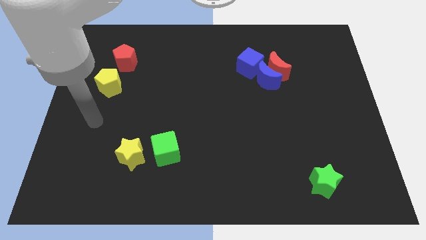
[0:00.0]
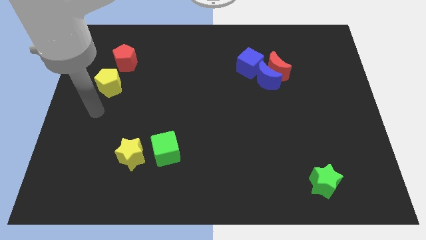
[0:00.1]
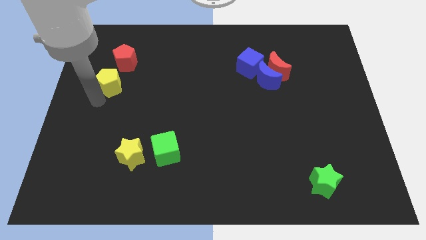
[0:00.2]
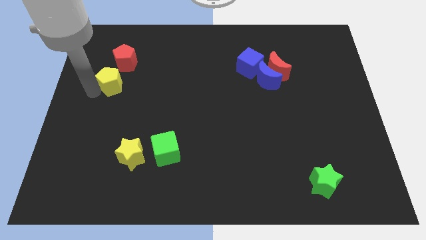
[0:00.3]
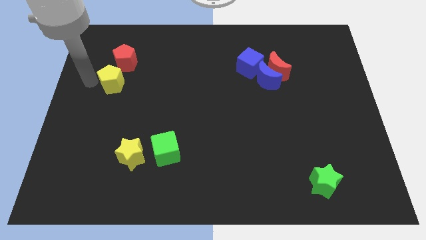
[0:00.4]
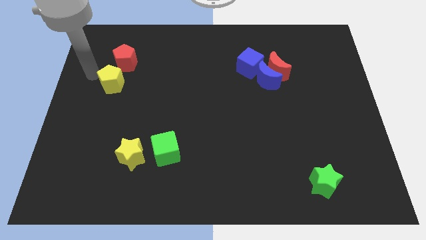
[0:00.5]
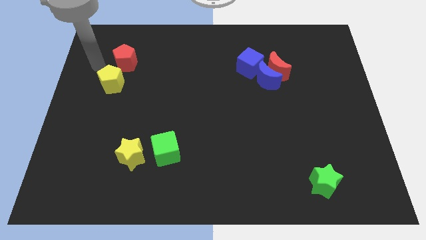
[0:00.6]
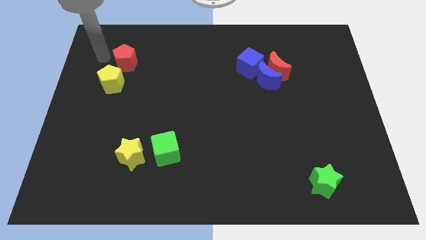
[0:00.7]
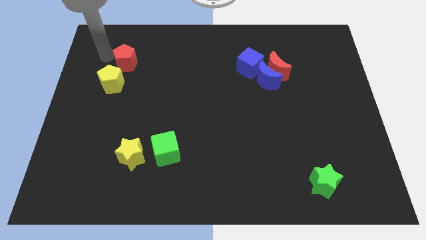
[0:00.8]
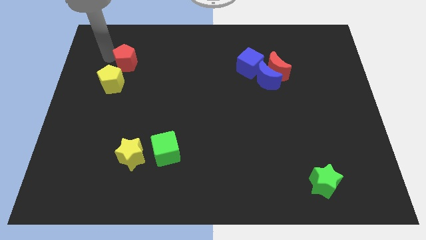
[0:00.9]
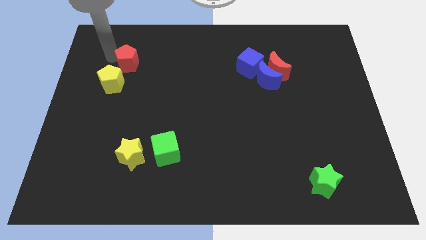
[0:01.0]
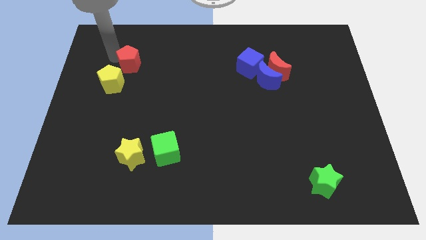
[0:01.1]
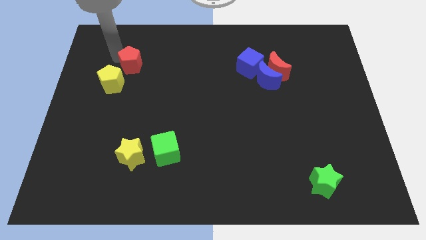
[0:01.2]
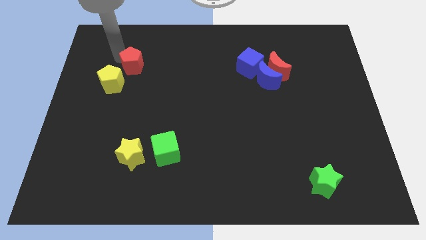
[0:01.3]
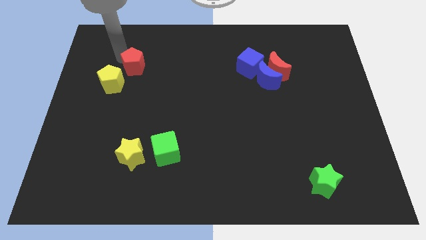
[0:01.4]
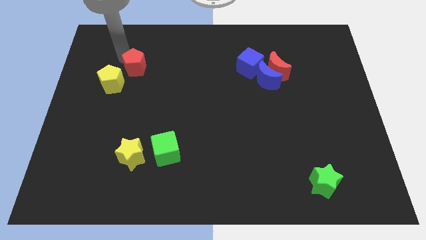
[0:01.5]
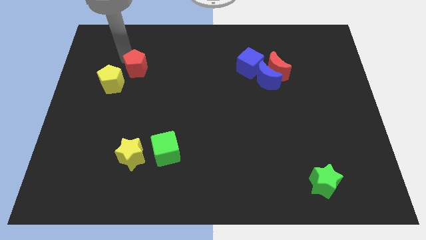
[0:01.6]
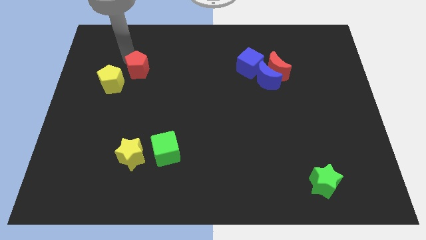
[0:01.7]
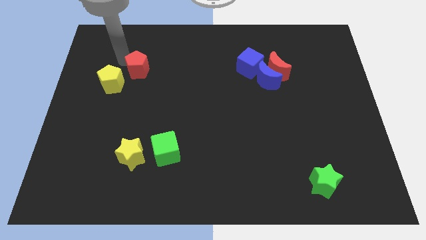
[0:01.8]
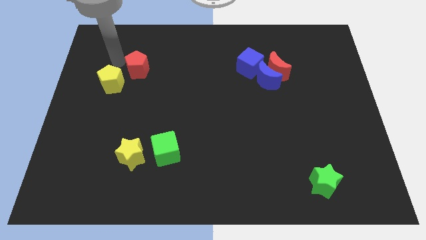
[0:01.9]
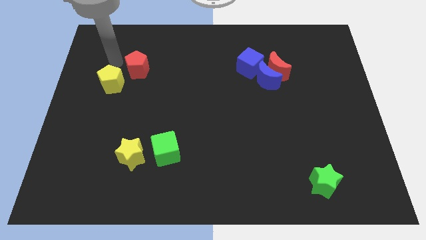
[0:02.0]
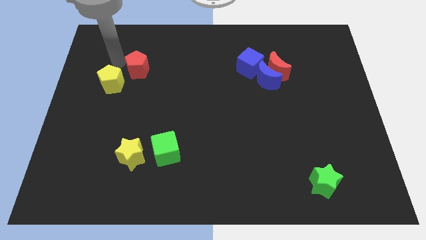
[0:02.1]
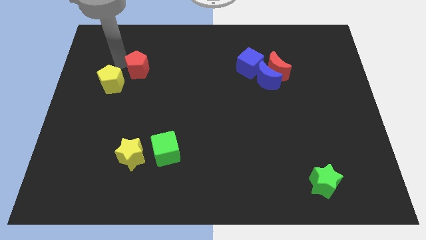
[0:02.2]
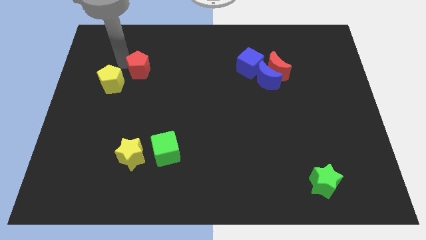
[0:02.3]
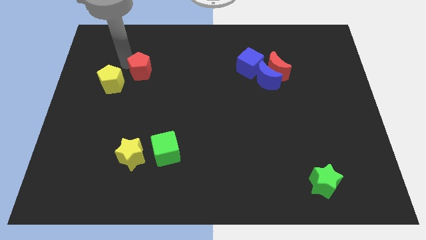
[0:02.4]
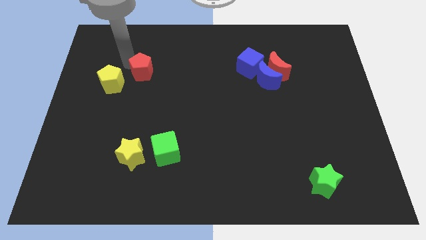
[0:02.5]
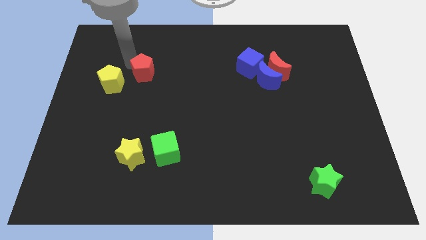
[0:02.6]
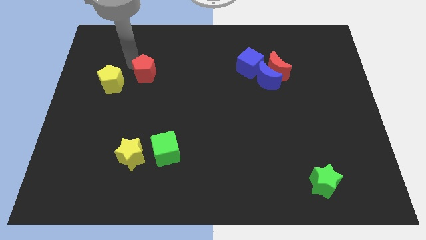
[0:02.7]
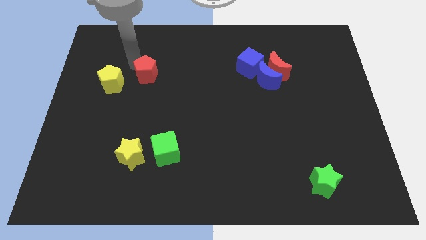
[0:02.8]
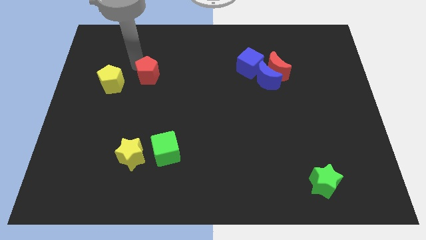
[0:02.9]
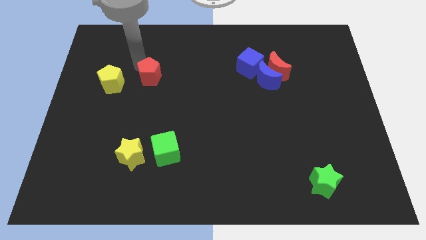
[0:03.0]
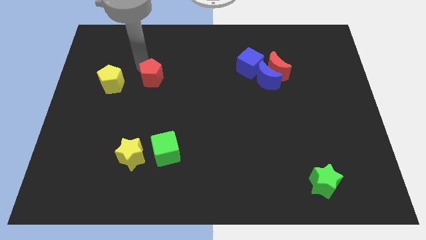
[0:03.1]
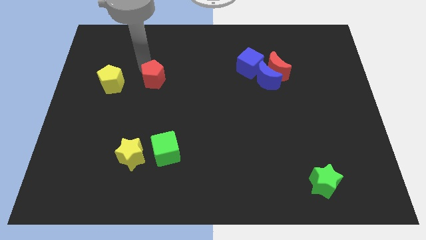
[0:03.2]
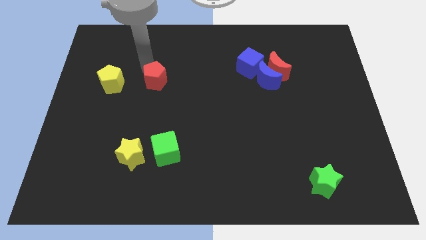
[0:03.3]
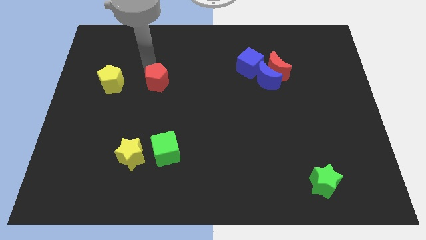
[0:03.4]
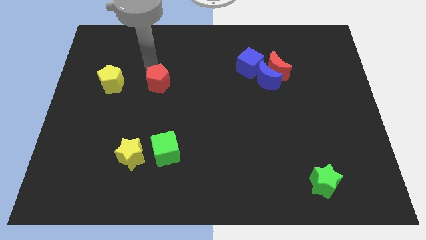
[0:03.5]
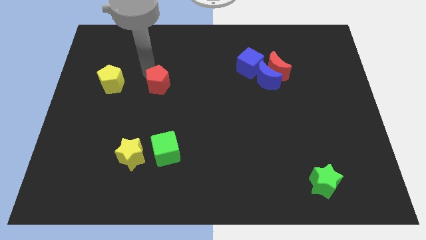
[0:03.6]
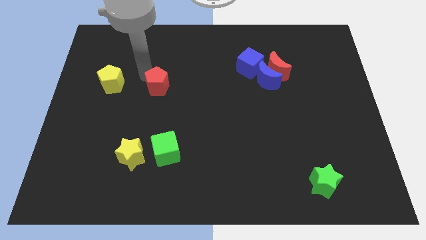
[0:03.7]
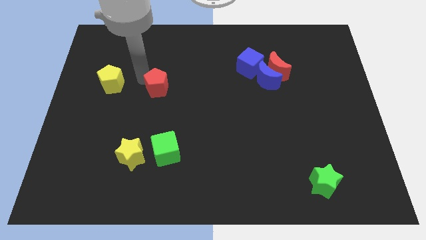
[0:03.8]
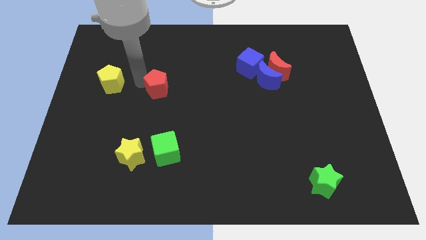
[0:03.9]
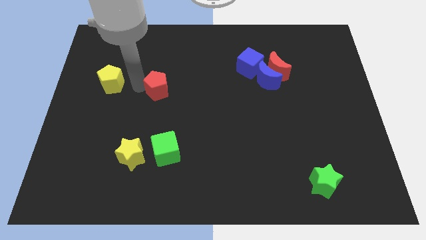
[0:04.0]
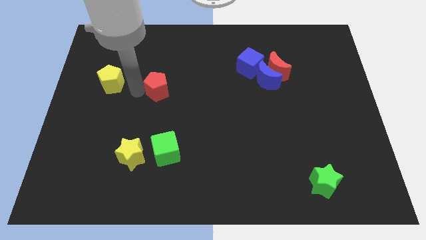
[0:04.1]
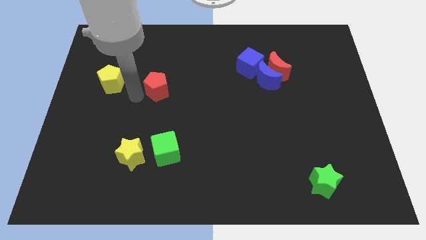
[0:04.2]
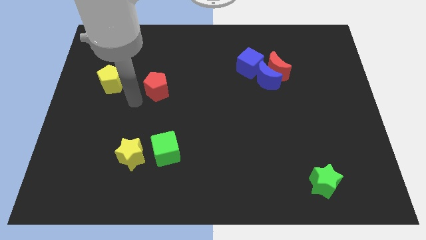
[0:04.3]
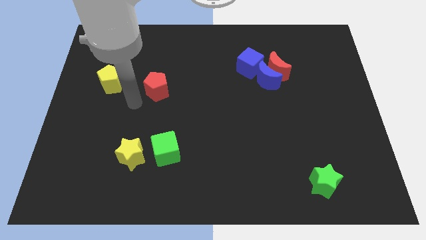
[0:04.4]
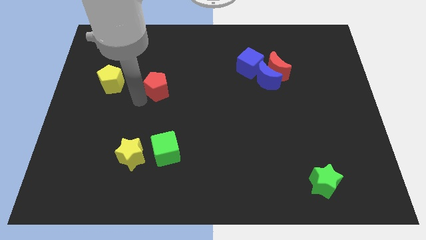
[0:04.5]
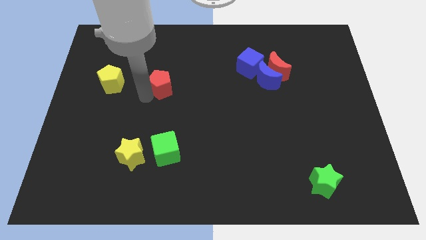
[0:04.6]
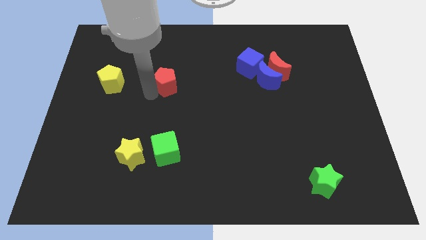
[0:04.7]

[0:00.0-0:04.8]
put the red pentagon to the middle

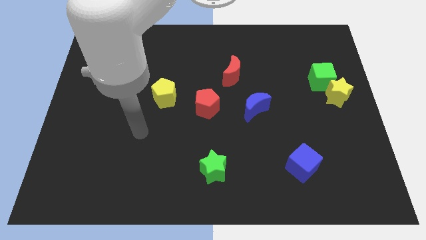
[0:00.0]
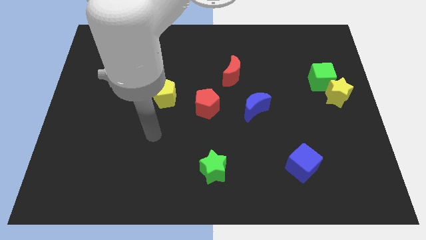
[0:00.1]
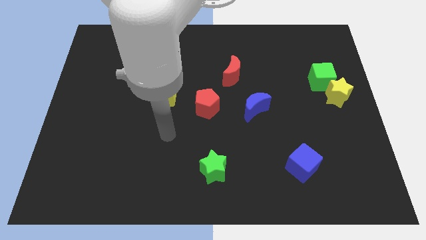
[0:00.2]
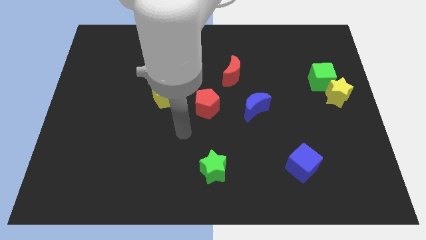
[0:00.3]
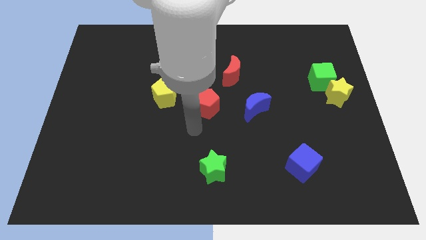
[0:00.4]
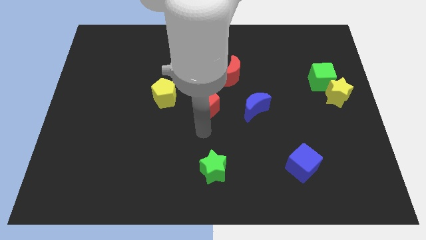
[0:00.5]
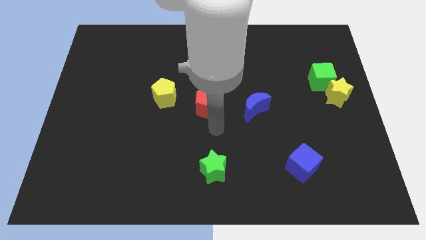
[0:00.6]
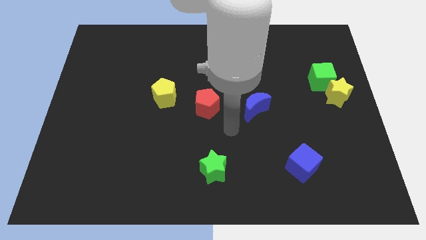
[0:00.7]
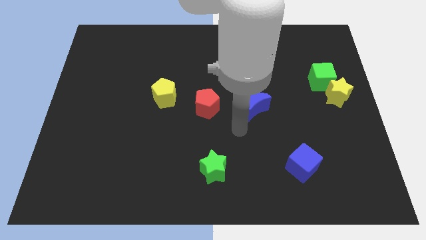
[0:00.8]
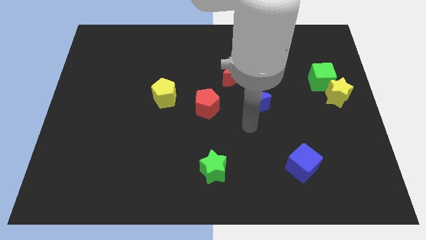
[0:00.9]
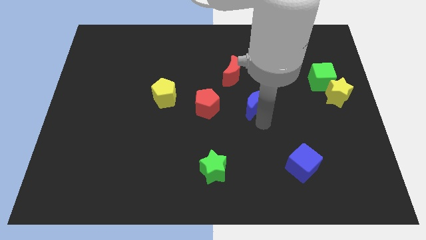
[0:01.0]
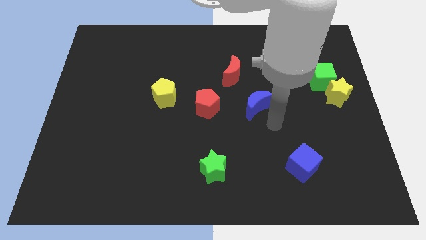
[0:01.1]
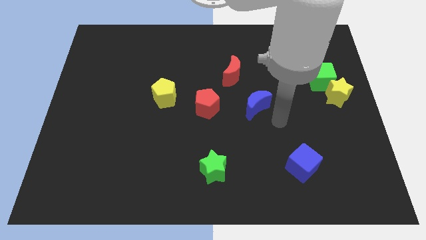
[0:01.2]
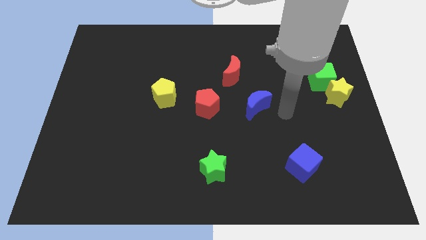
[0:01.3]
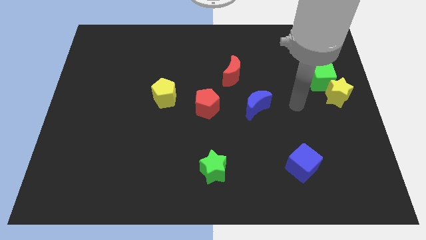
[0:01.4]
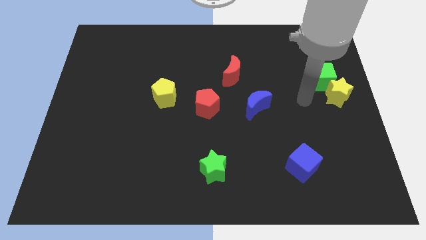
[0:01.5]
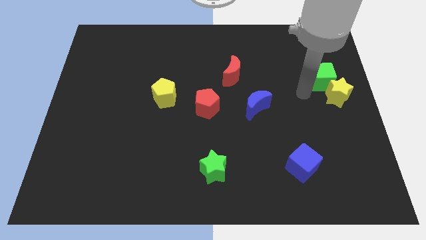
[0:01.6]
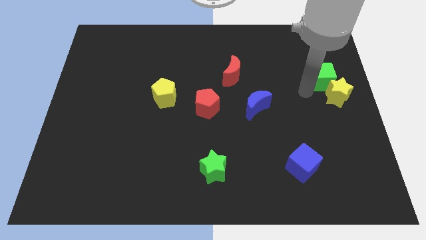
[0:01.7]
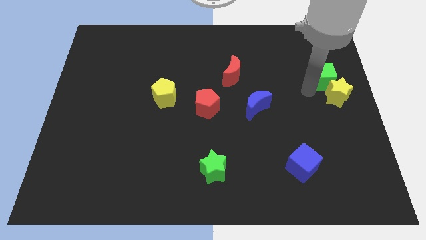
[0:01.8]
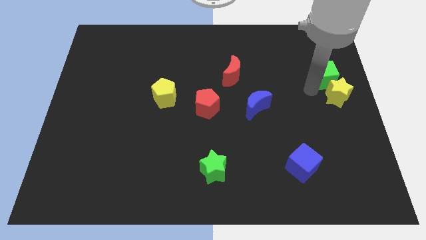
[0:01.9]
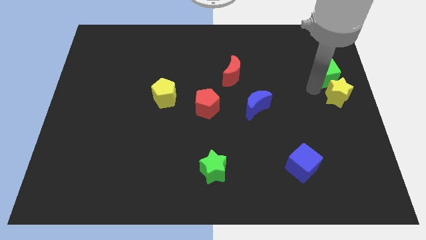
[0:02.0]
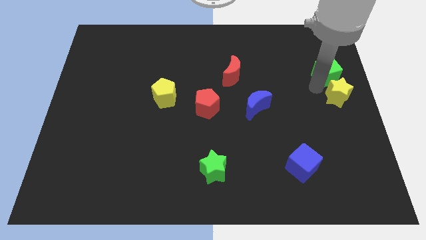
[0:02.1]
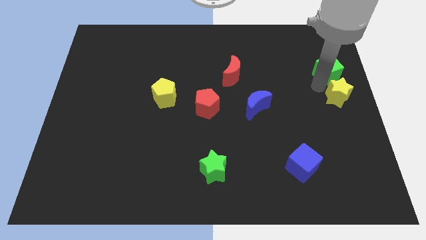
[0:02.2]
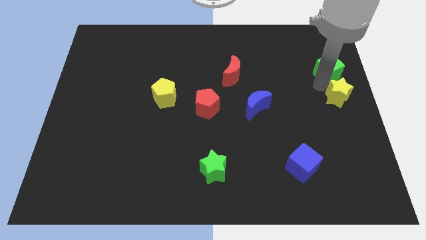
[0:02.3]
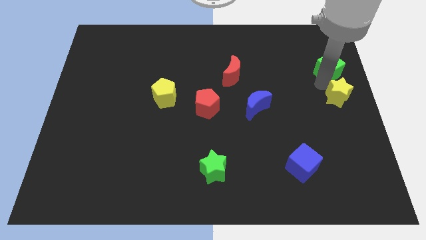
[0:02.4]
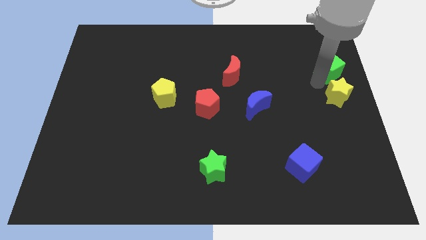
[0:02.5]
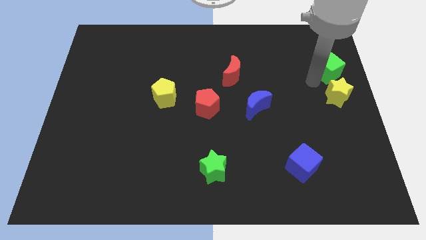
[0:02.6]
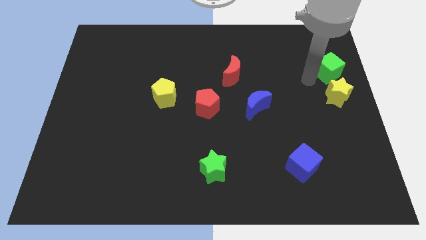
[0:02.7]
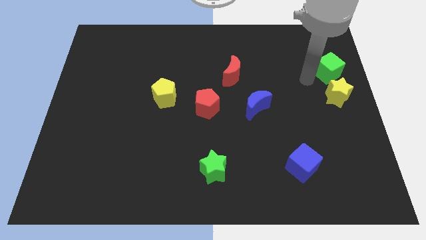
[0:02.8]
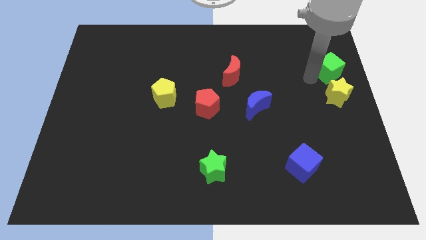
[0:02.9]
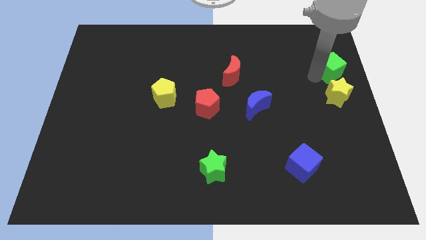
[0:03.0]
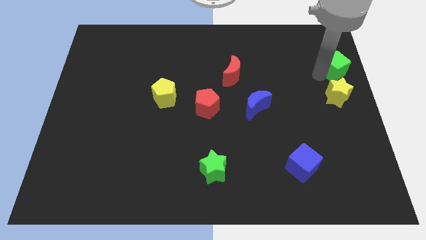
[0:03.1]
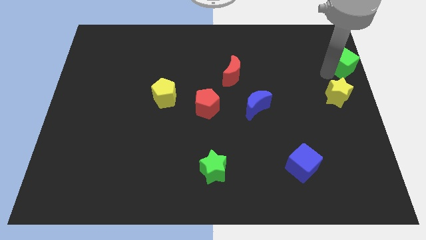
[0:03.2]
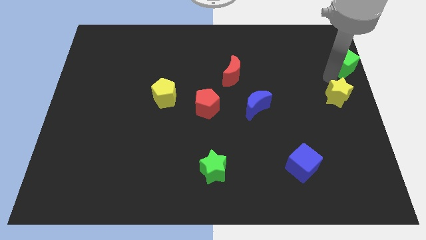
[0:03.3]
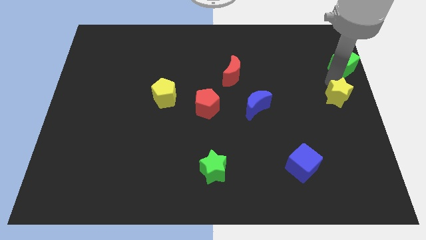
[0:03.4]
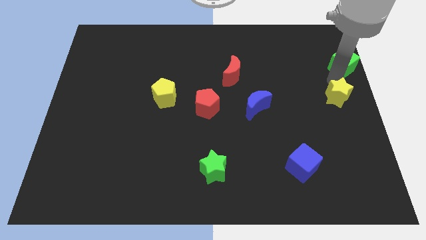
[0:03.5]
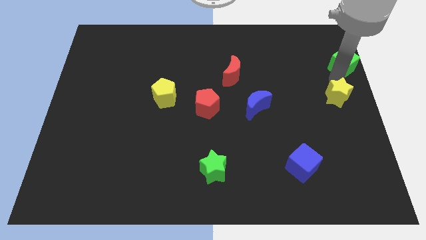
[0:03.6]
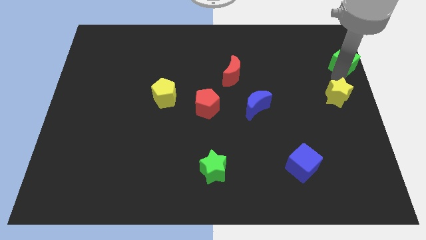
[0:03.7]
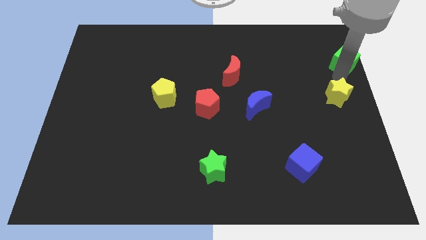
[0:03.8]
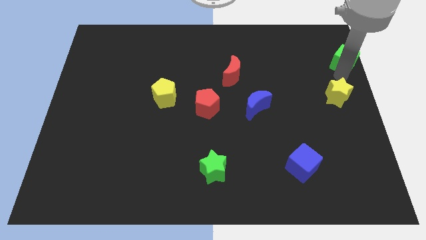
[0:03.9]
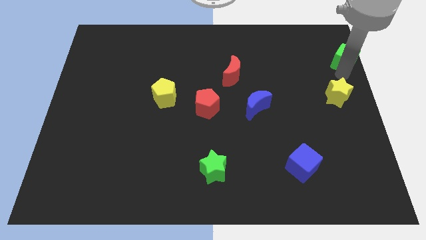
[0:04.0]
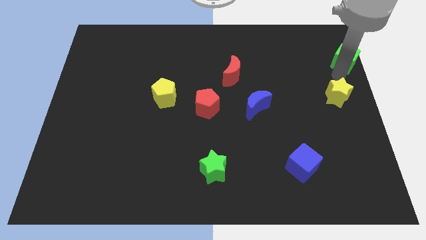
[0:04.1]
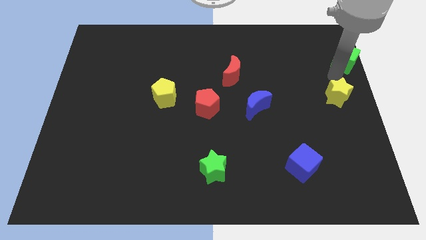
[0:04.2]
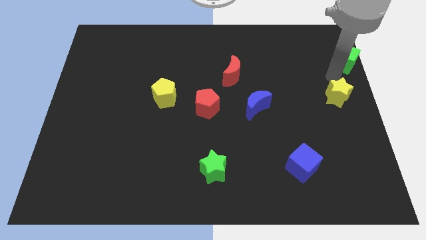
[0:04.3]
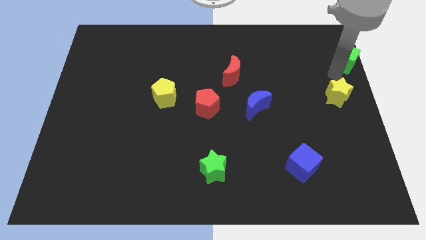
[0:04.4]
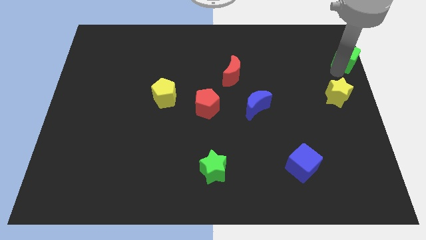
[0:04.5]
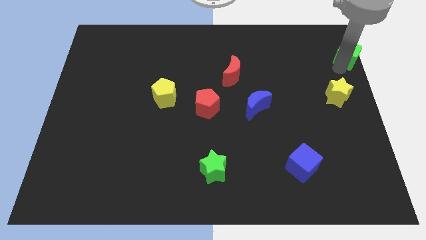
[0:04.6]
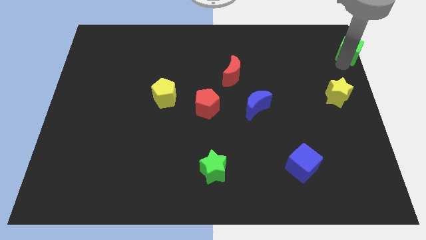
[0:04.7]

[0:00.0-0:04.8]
move the green cube to the top right
